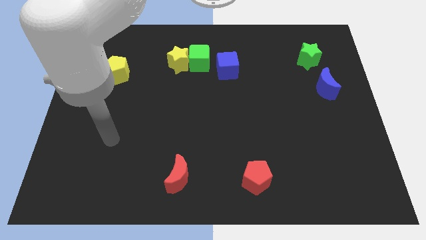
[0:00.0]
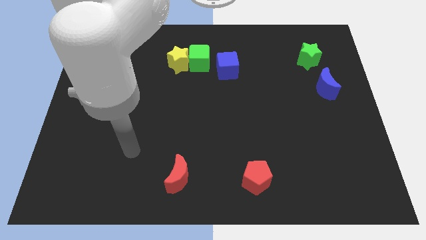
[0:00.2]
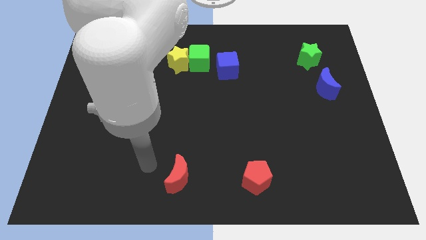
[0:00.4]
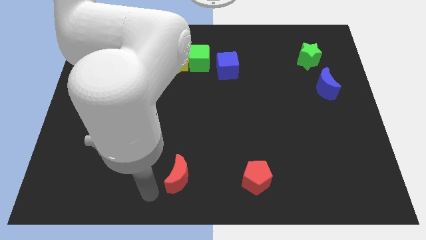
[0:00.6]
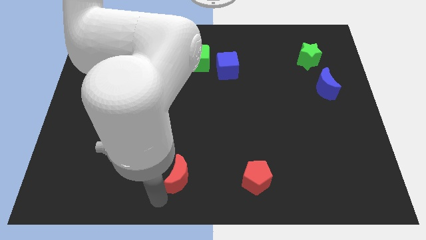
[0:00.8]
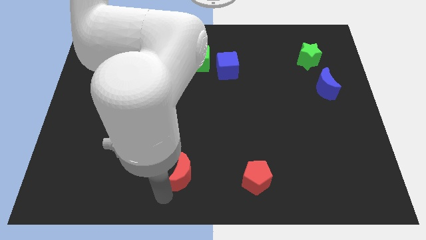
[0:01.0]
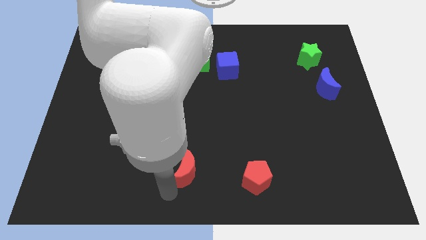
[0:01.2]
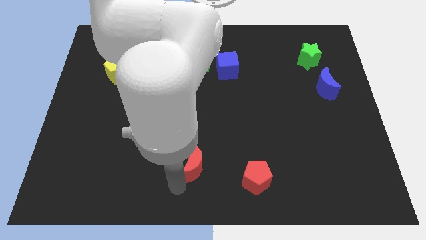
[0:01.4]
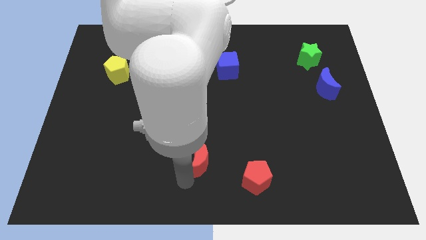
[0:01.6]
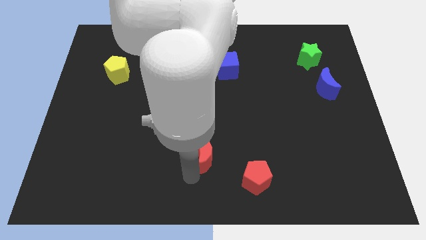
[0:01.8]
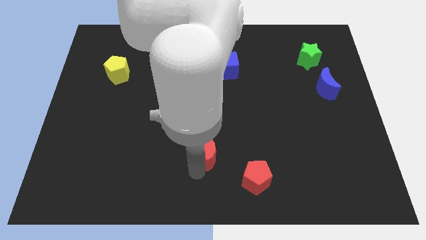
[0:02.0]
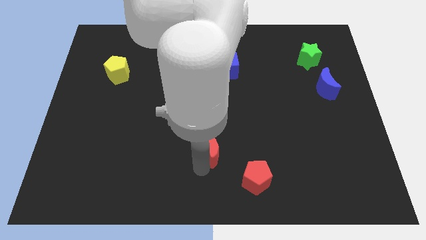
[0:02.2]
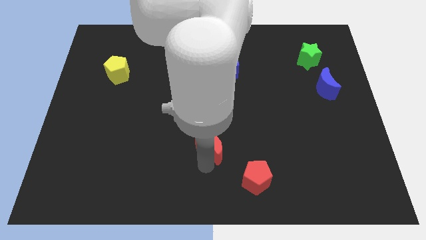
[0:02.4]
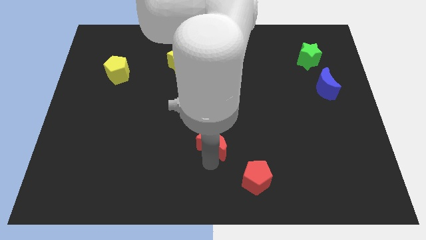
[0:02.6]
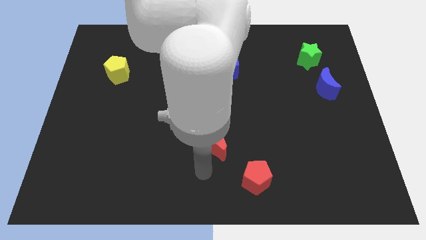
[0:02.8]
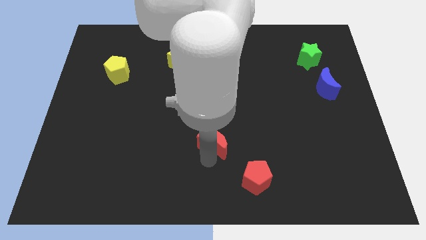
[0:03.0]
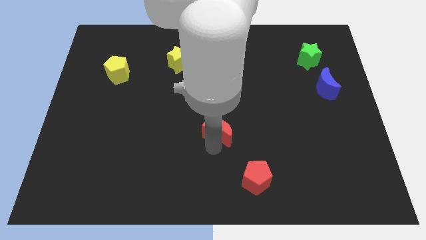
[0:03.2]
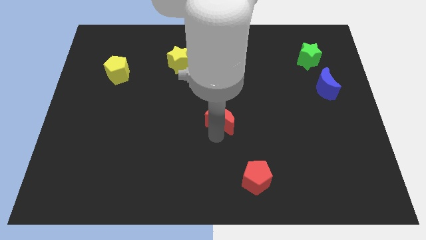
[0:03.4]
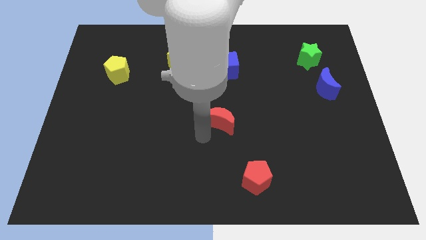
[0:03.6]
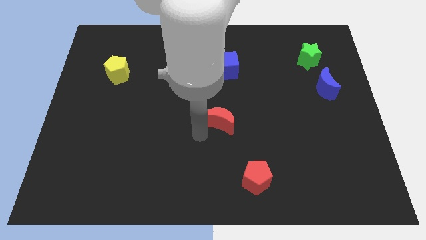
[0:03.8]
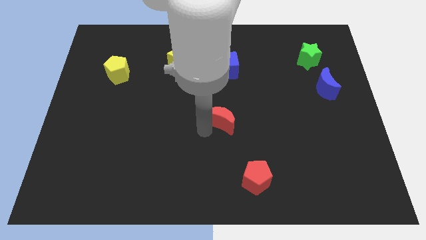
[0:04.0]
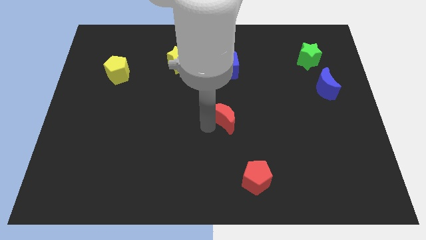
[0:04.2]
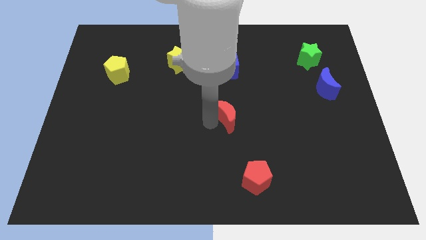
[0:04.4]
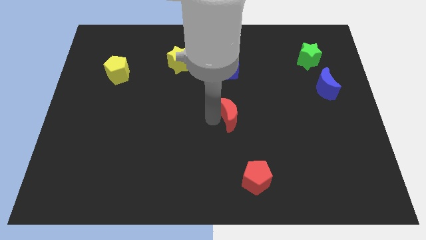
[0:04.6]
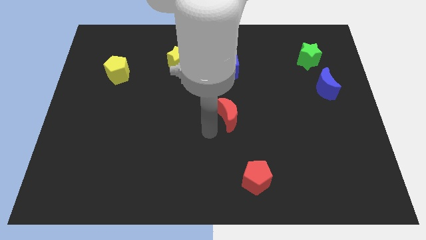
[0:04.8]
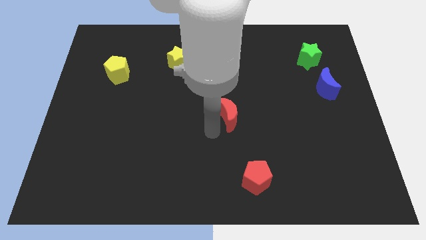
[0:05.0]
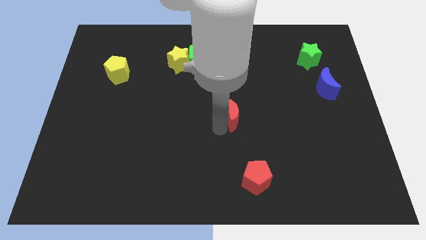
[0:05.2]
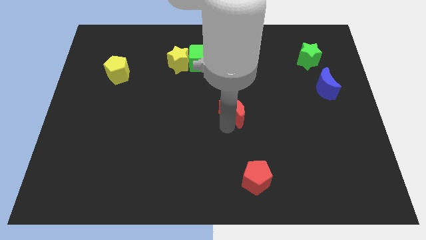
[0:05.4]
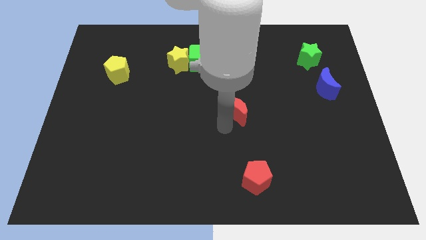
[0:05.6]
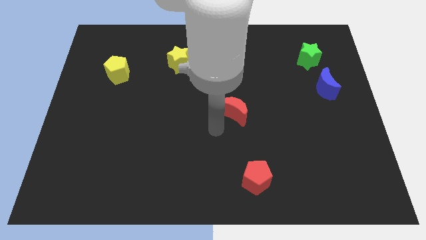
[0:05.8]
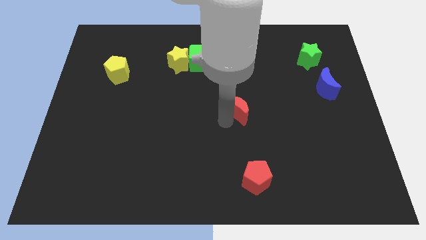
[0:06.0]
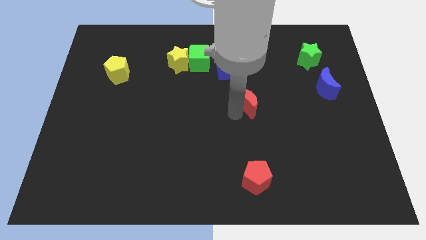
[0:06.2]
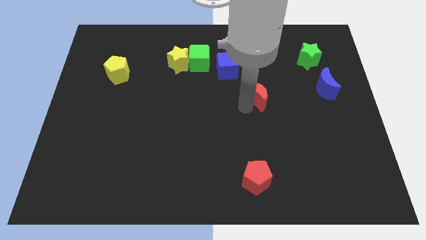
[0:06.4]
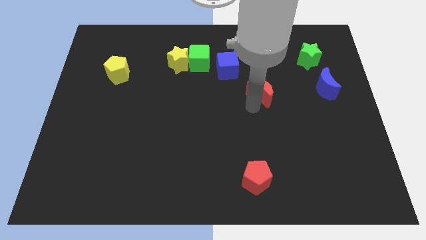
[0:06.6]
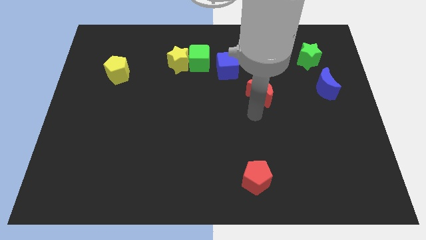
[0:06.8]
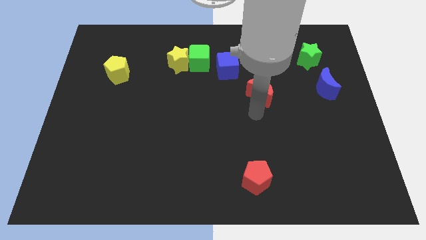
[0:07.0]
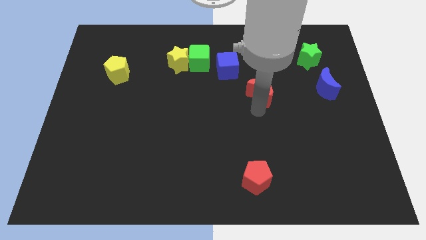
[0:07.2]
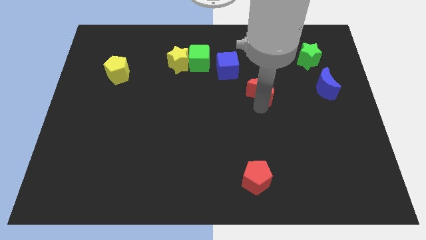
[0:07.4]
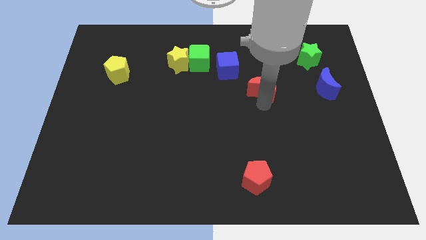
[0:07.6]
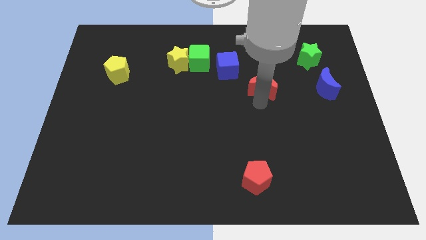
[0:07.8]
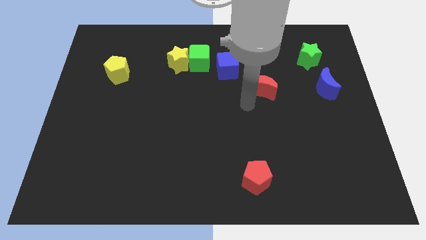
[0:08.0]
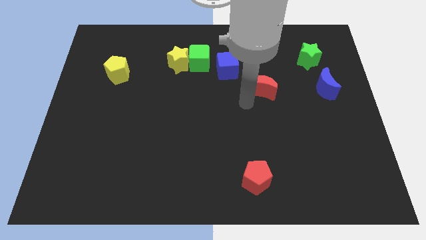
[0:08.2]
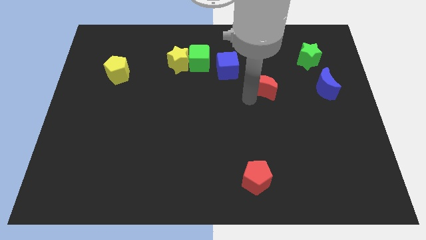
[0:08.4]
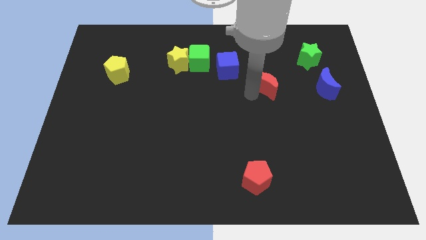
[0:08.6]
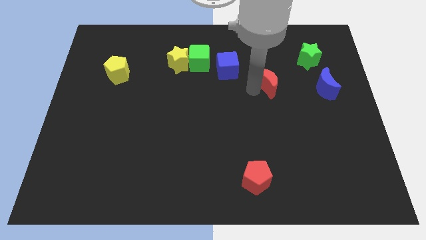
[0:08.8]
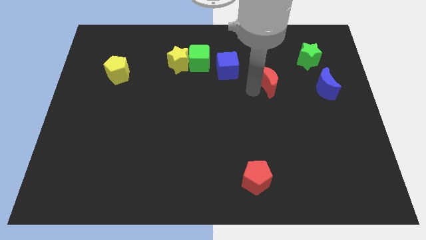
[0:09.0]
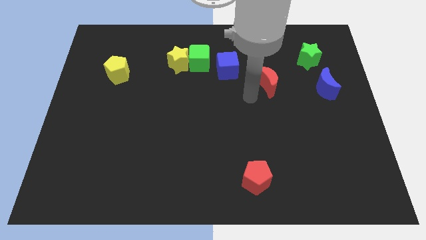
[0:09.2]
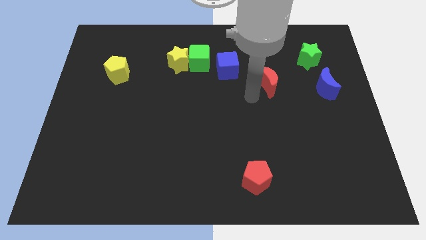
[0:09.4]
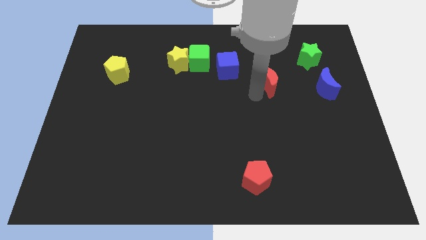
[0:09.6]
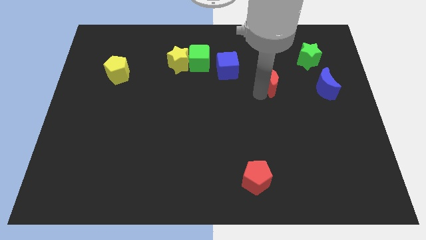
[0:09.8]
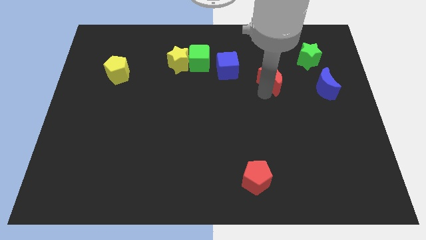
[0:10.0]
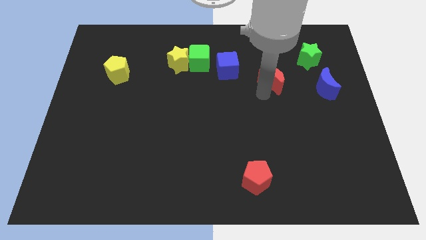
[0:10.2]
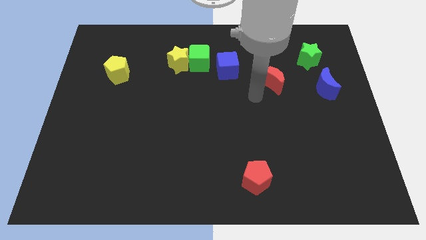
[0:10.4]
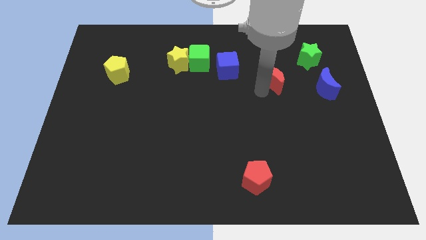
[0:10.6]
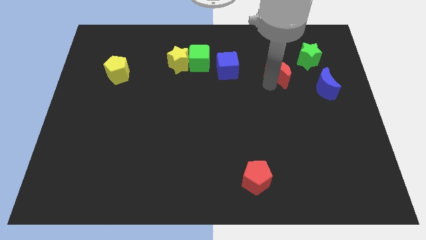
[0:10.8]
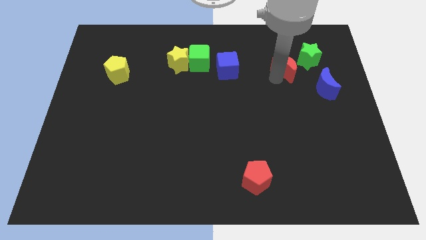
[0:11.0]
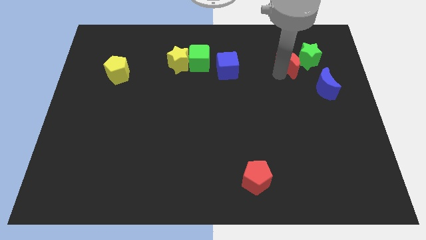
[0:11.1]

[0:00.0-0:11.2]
move the red moon close to the green star

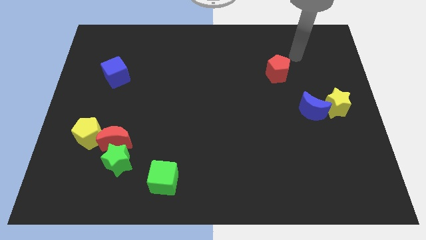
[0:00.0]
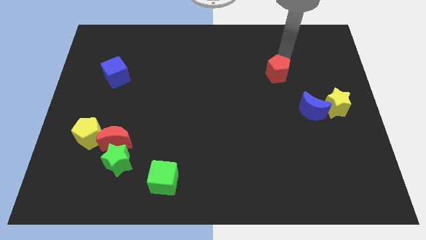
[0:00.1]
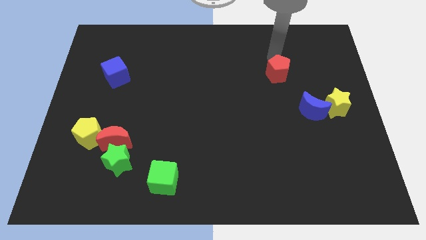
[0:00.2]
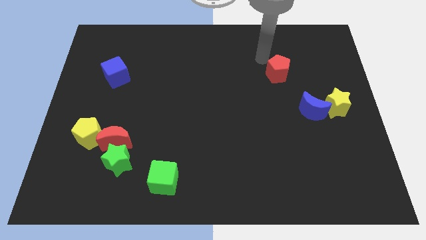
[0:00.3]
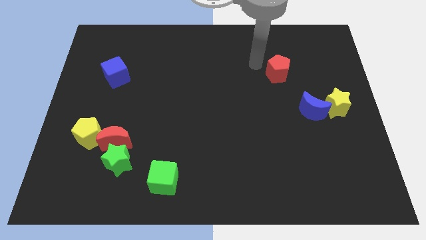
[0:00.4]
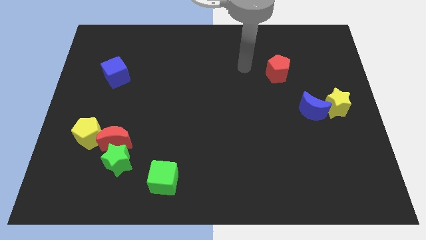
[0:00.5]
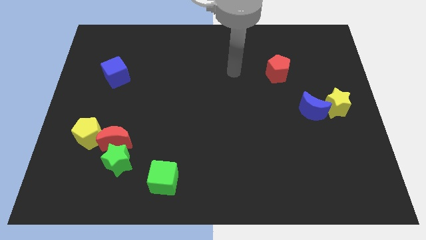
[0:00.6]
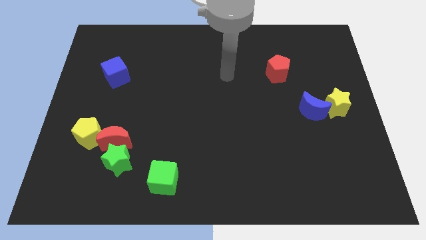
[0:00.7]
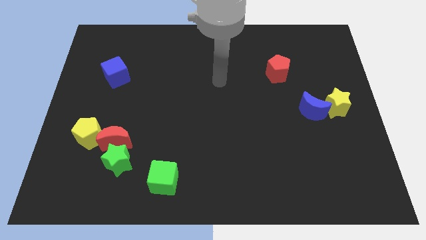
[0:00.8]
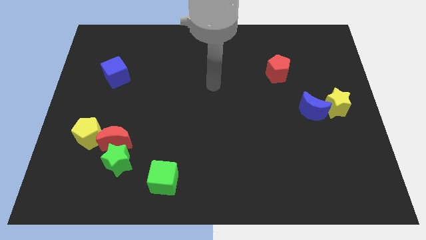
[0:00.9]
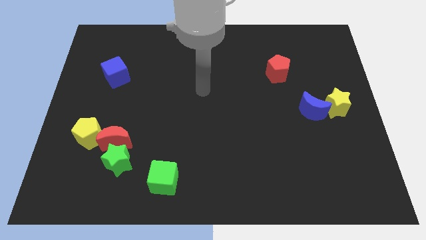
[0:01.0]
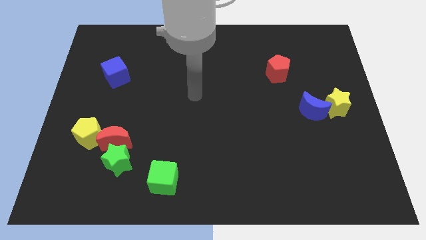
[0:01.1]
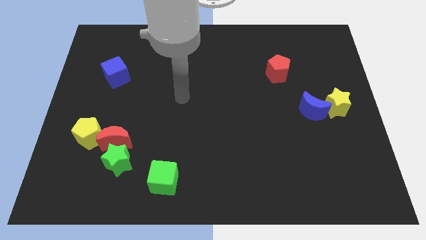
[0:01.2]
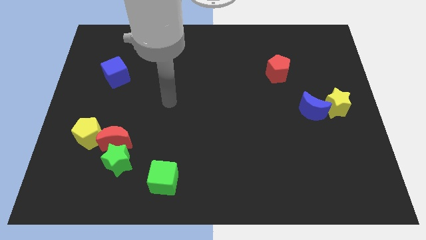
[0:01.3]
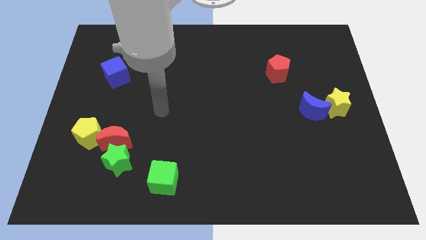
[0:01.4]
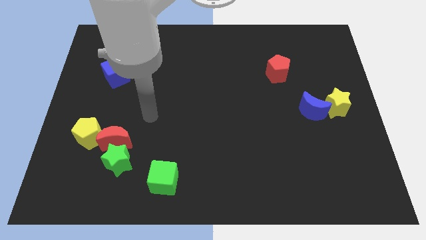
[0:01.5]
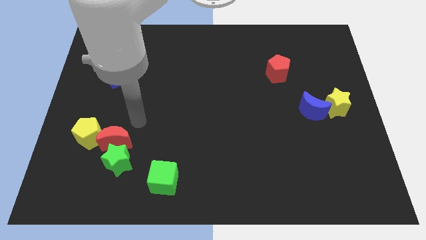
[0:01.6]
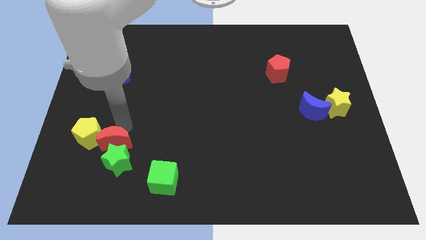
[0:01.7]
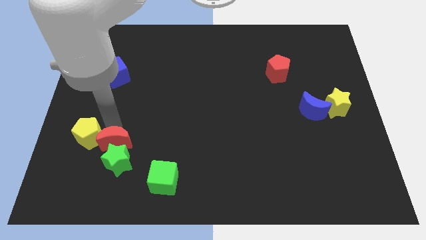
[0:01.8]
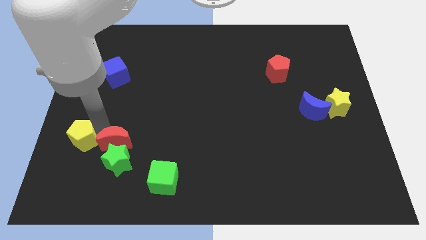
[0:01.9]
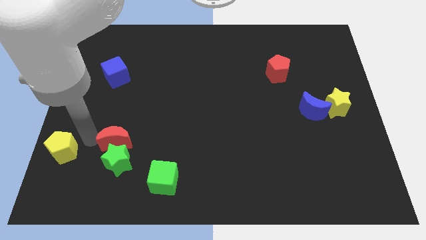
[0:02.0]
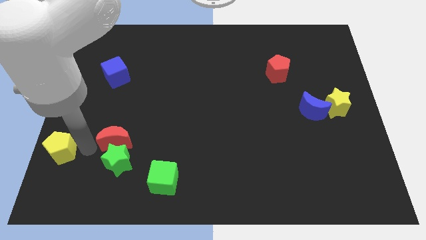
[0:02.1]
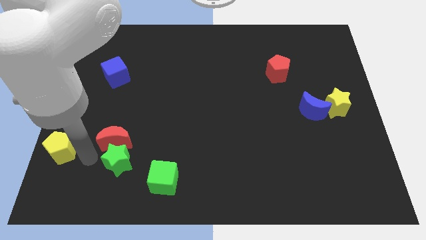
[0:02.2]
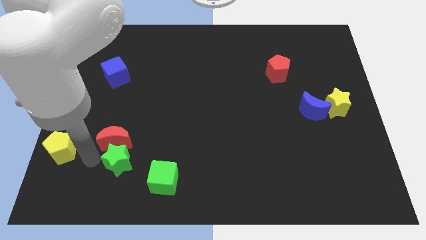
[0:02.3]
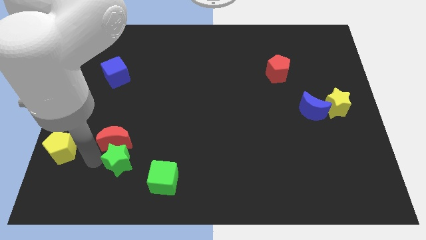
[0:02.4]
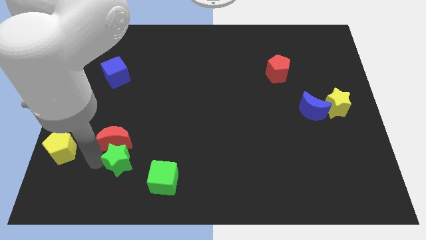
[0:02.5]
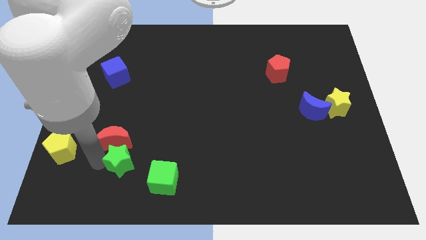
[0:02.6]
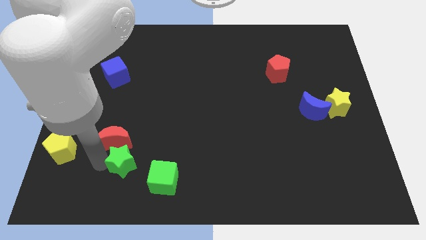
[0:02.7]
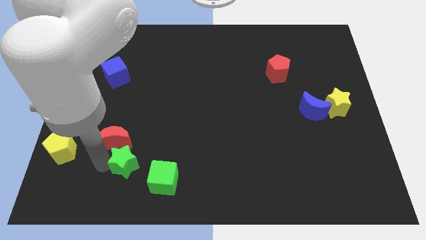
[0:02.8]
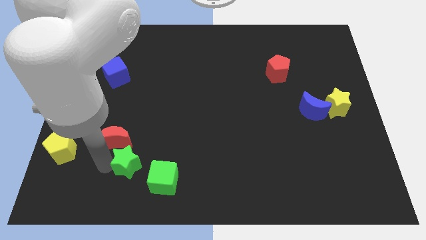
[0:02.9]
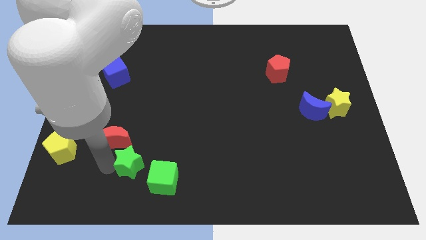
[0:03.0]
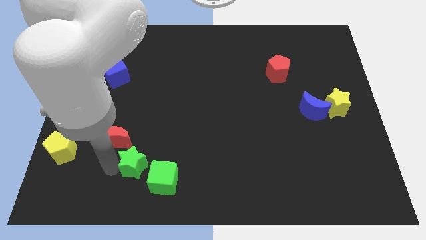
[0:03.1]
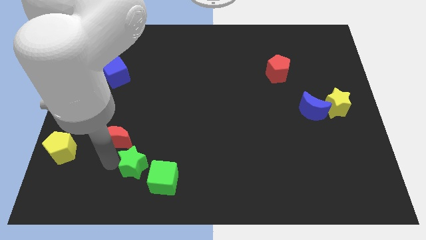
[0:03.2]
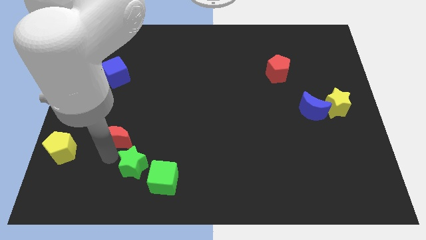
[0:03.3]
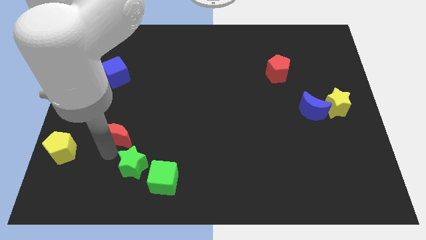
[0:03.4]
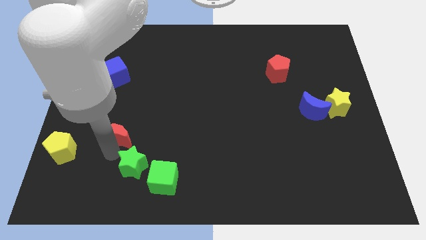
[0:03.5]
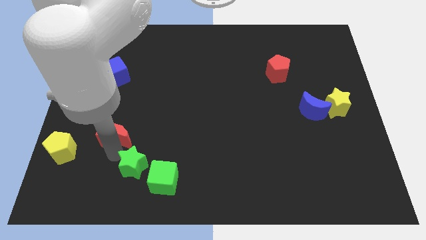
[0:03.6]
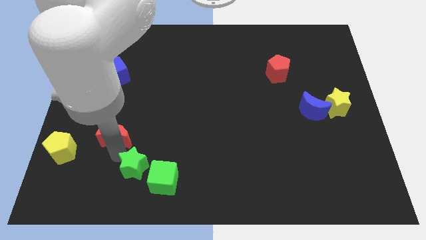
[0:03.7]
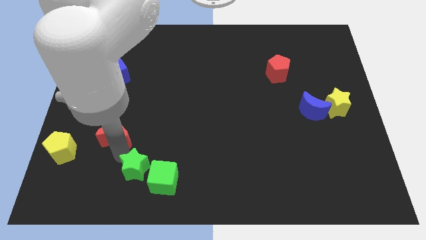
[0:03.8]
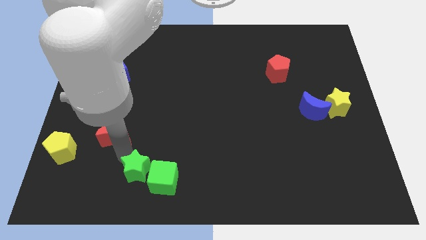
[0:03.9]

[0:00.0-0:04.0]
push the green star close to the green cube
